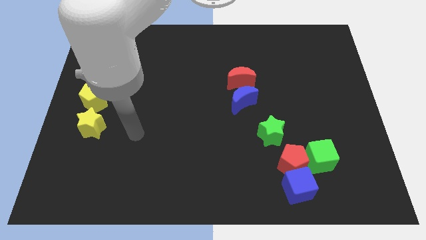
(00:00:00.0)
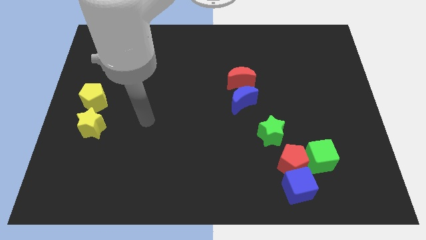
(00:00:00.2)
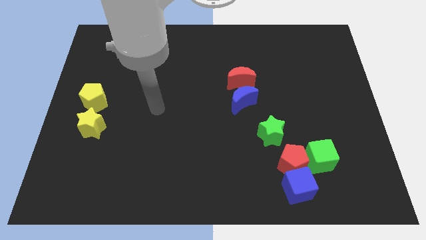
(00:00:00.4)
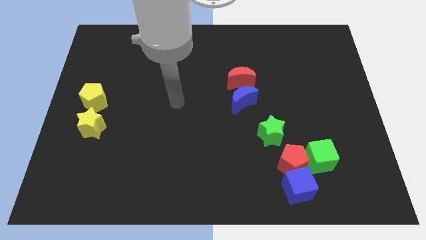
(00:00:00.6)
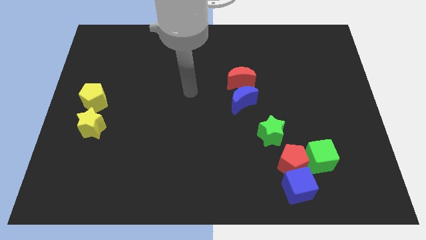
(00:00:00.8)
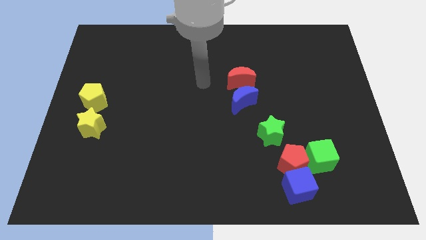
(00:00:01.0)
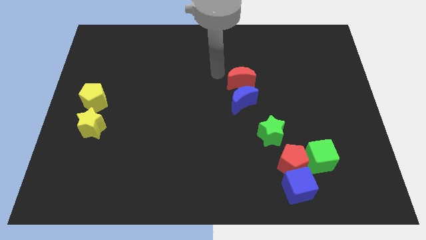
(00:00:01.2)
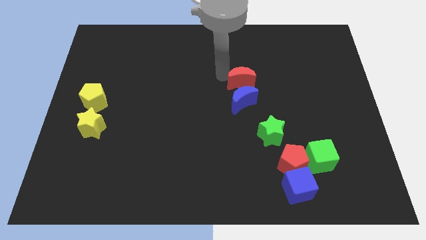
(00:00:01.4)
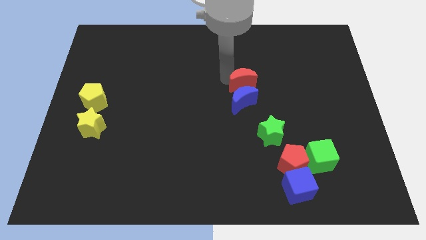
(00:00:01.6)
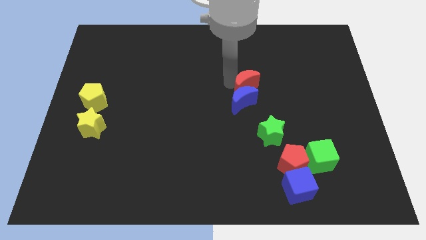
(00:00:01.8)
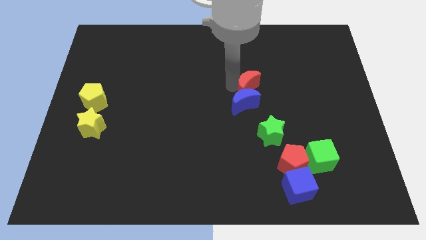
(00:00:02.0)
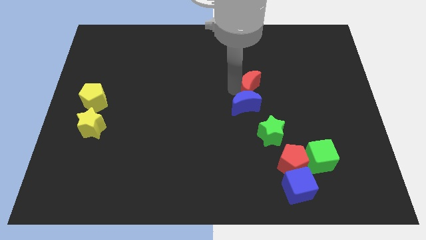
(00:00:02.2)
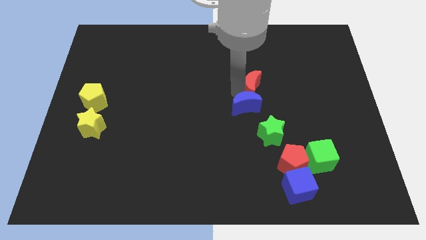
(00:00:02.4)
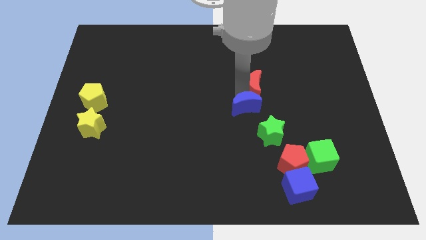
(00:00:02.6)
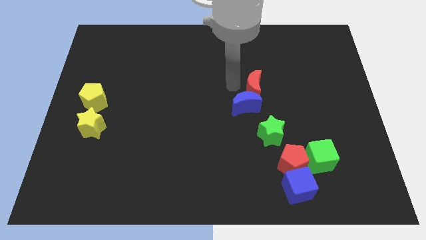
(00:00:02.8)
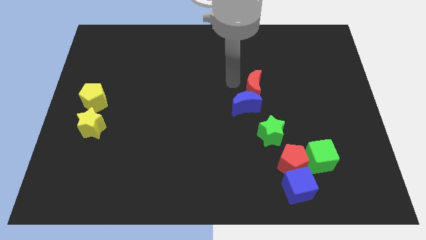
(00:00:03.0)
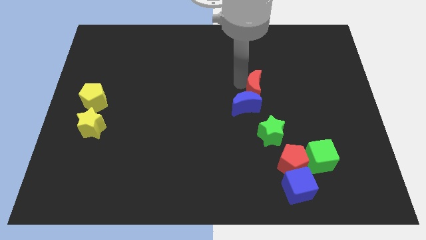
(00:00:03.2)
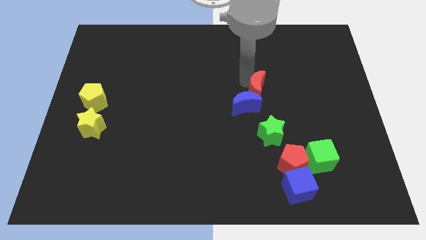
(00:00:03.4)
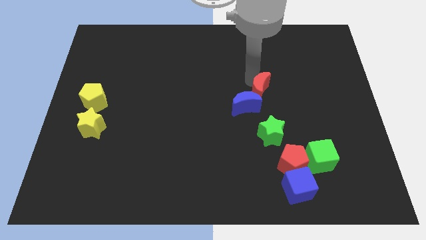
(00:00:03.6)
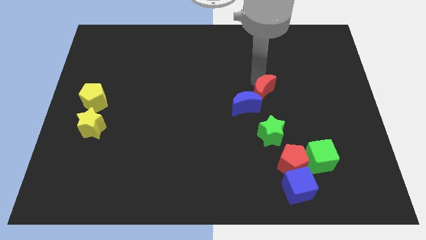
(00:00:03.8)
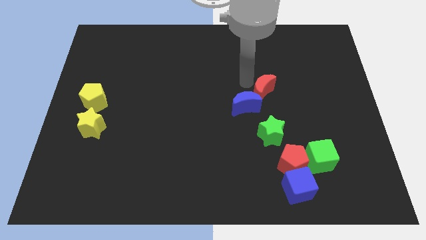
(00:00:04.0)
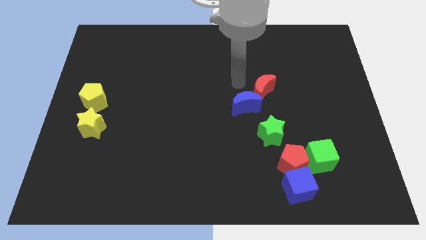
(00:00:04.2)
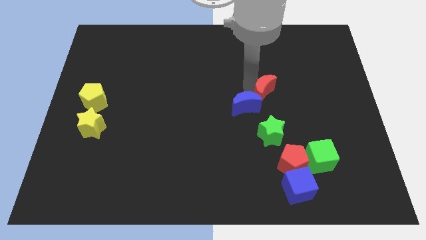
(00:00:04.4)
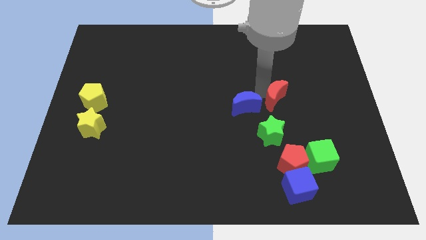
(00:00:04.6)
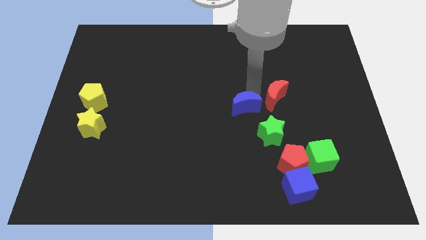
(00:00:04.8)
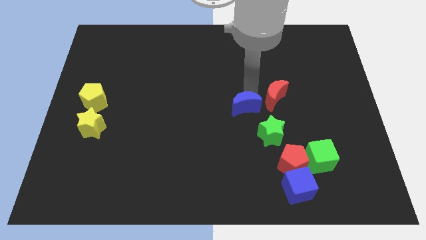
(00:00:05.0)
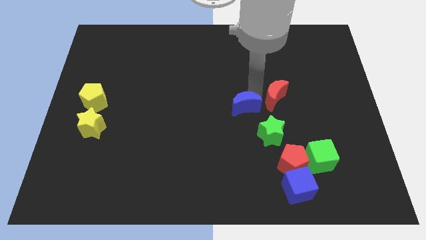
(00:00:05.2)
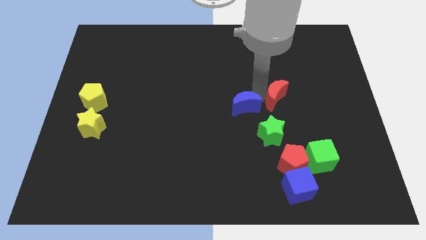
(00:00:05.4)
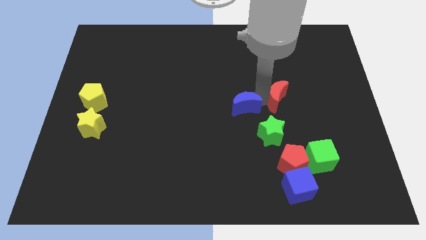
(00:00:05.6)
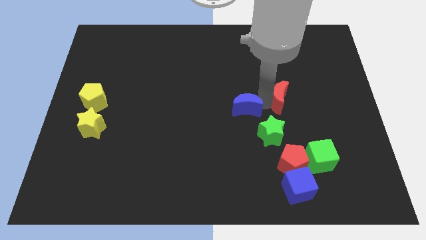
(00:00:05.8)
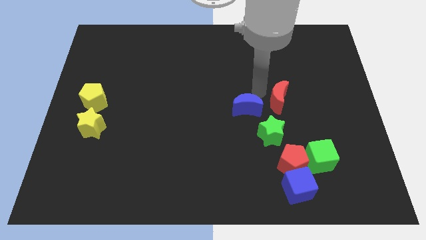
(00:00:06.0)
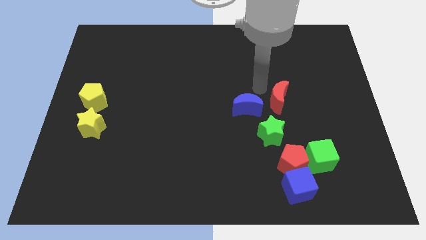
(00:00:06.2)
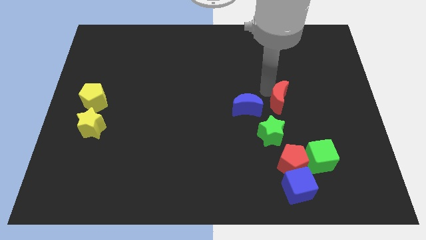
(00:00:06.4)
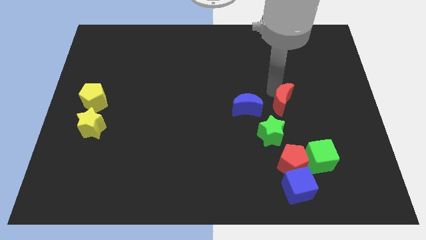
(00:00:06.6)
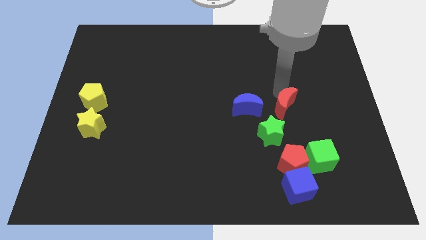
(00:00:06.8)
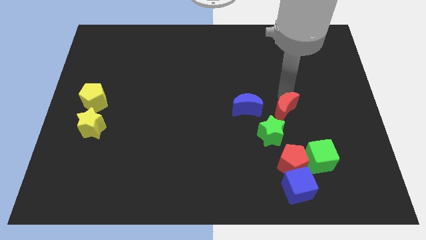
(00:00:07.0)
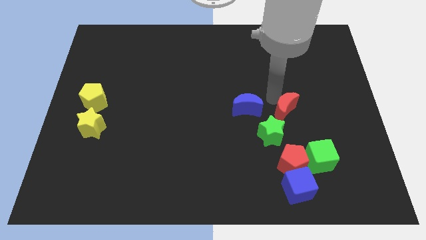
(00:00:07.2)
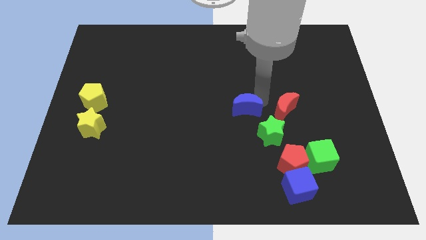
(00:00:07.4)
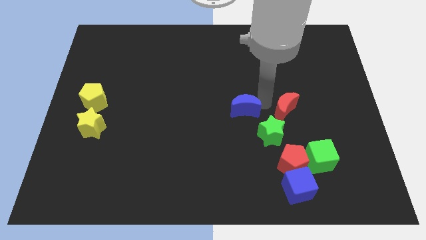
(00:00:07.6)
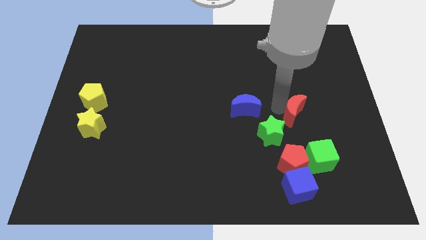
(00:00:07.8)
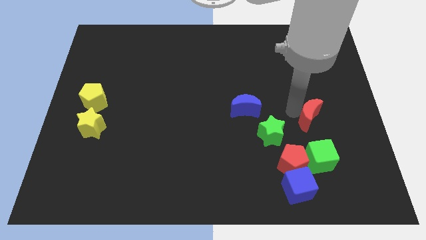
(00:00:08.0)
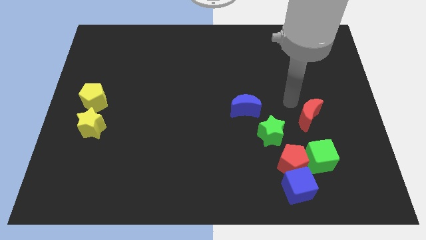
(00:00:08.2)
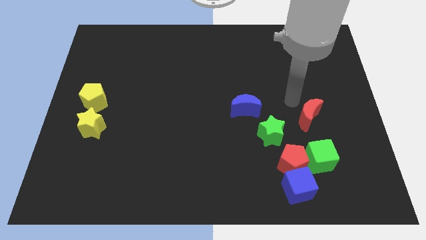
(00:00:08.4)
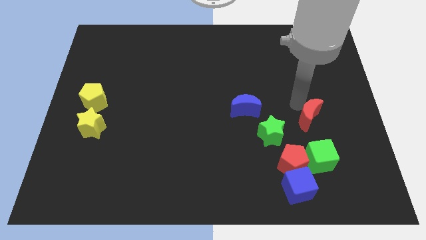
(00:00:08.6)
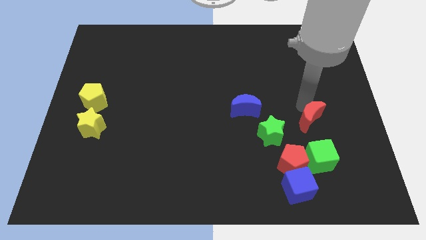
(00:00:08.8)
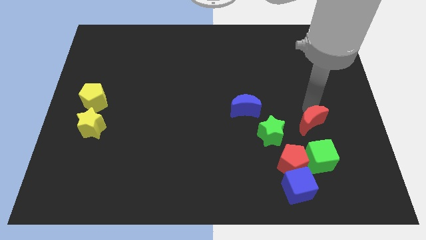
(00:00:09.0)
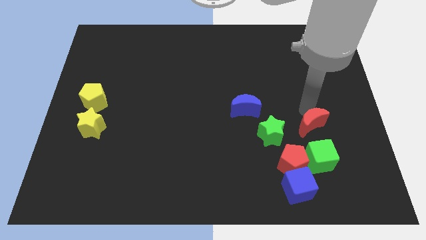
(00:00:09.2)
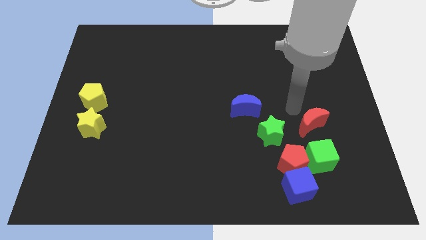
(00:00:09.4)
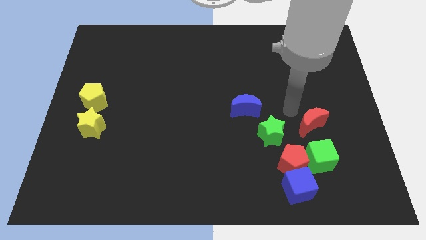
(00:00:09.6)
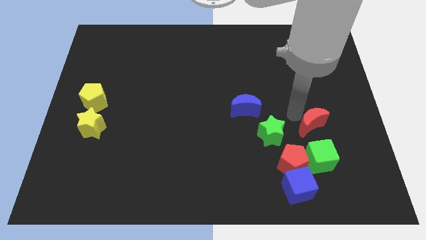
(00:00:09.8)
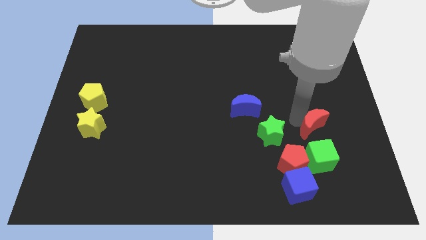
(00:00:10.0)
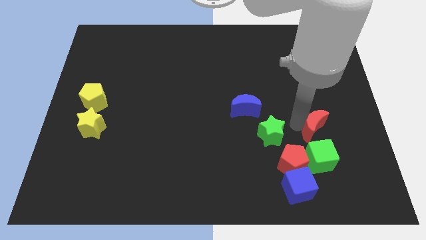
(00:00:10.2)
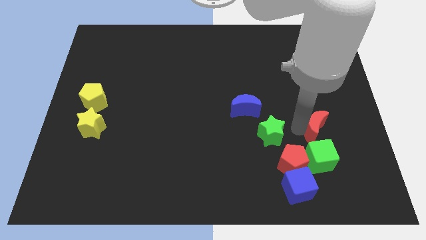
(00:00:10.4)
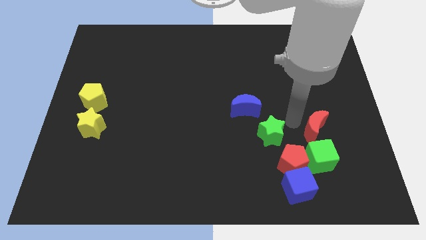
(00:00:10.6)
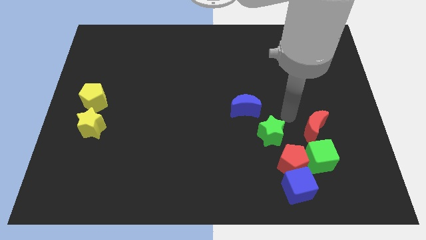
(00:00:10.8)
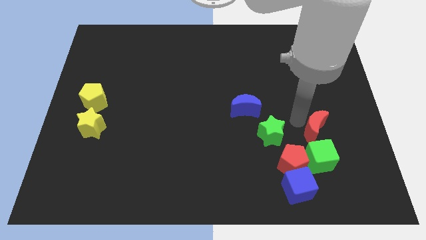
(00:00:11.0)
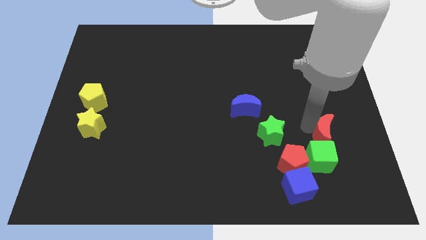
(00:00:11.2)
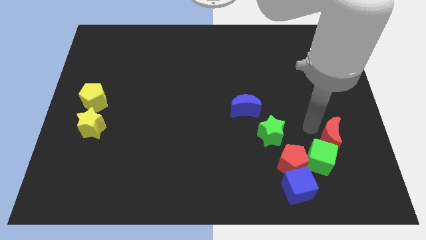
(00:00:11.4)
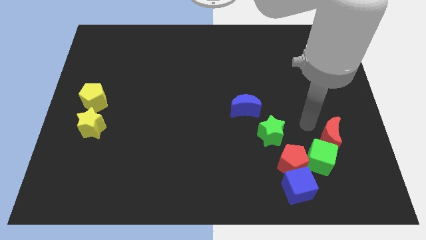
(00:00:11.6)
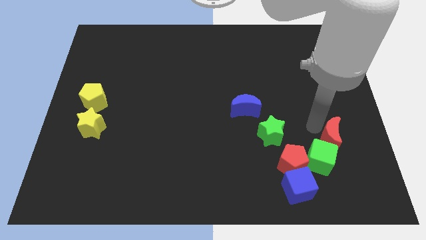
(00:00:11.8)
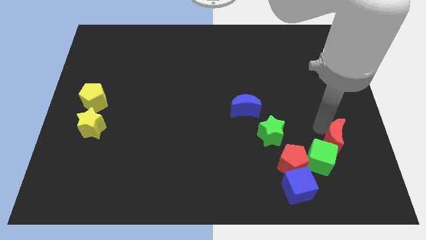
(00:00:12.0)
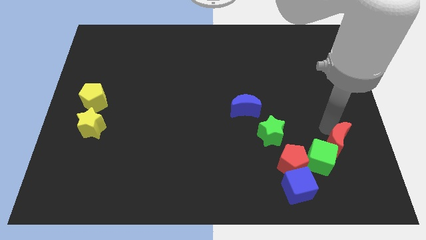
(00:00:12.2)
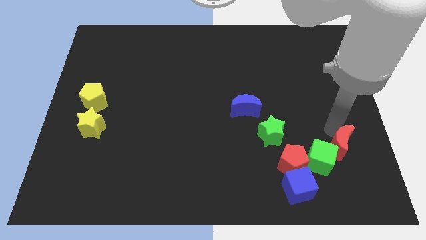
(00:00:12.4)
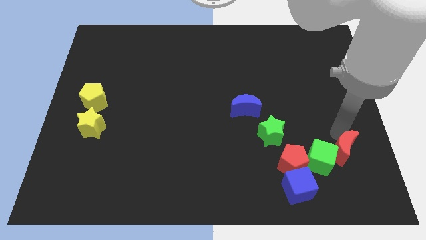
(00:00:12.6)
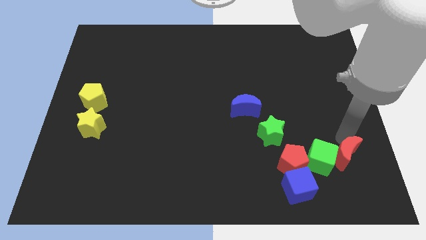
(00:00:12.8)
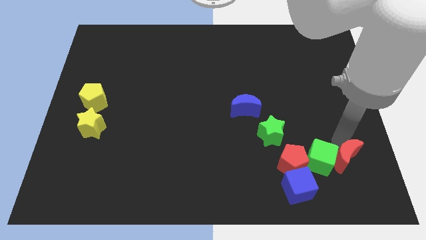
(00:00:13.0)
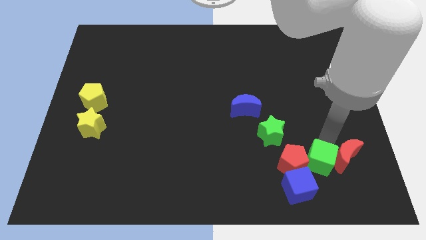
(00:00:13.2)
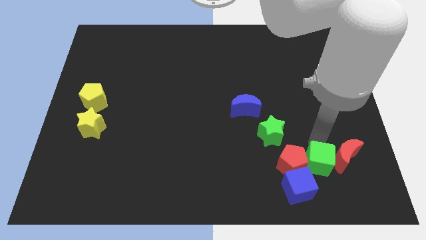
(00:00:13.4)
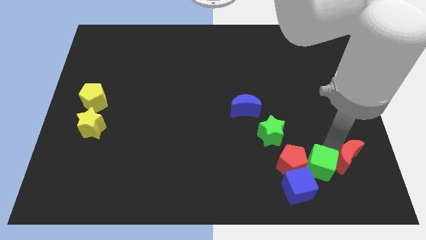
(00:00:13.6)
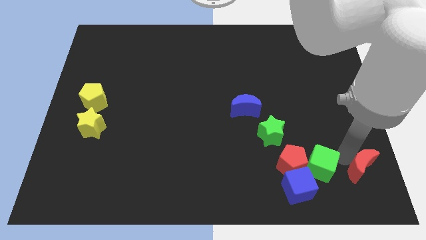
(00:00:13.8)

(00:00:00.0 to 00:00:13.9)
slide the red moon to the bottom right of the board
